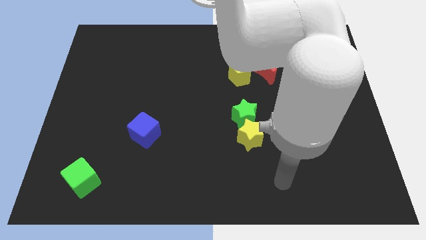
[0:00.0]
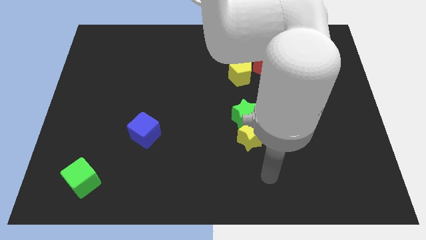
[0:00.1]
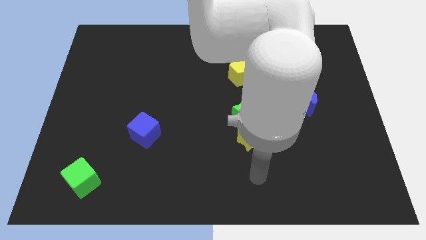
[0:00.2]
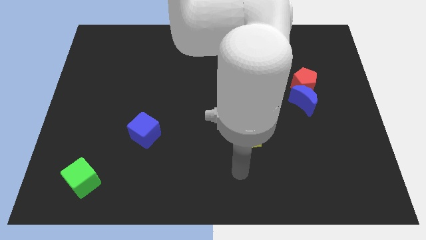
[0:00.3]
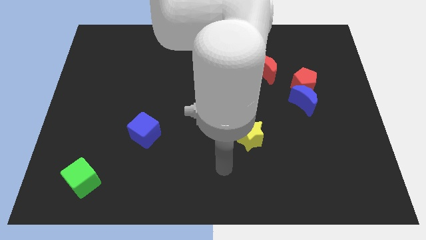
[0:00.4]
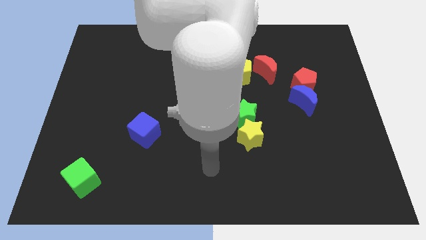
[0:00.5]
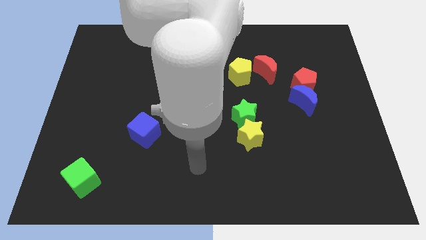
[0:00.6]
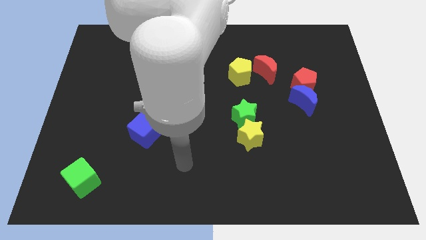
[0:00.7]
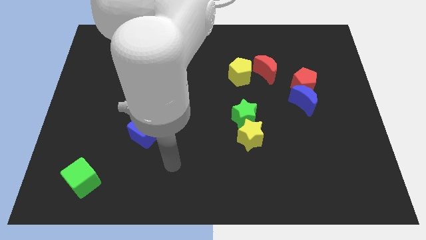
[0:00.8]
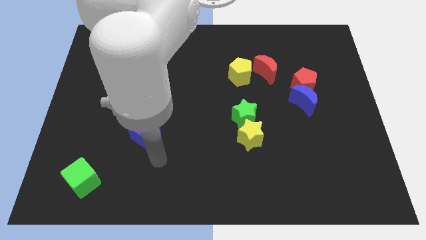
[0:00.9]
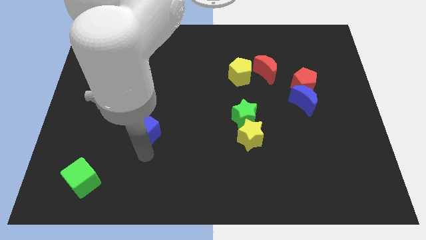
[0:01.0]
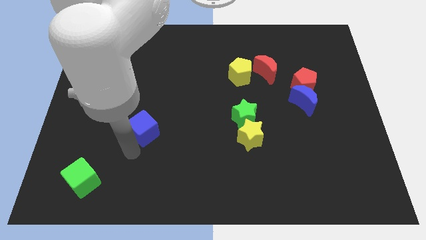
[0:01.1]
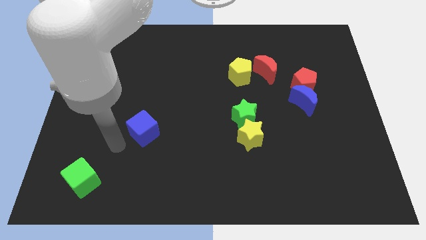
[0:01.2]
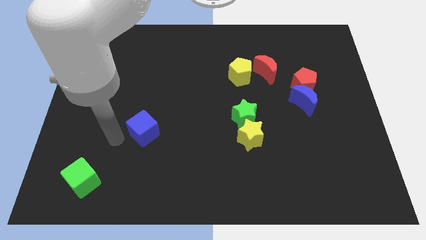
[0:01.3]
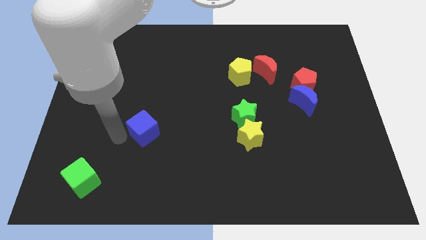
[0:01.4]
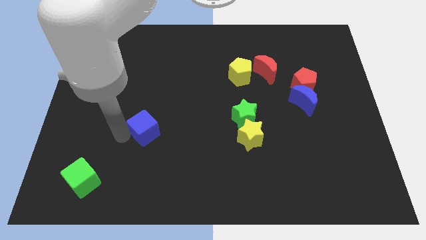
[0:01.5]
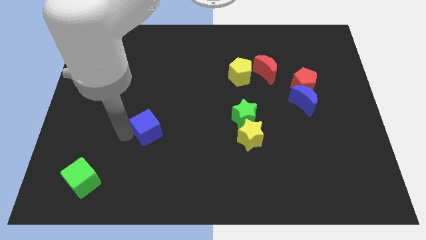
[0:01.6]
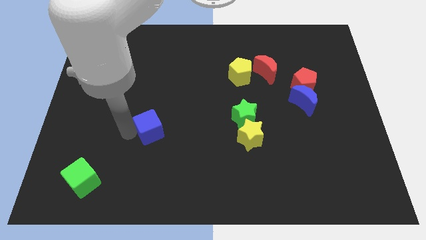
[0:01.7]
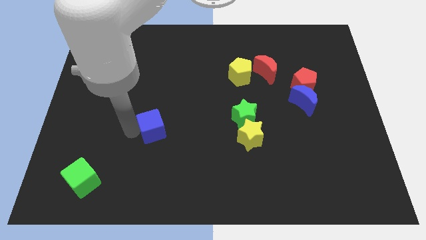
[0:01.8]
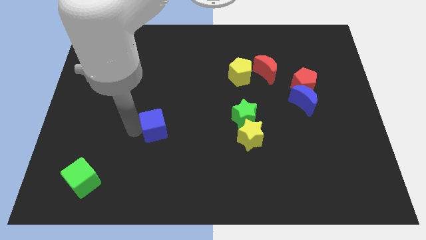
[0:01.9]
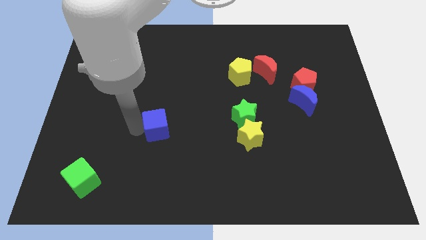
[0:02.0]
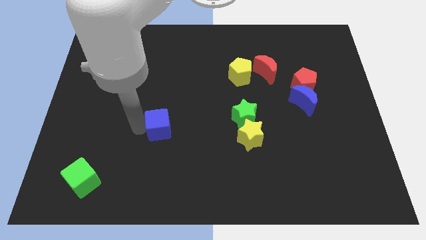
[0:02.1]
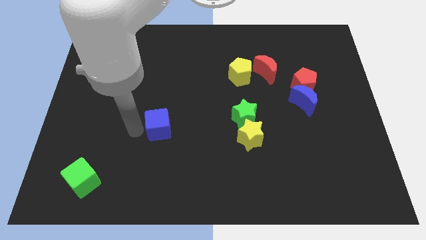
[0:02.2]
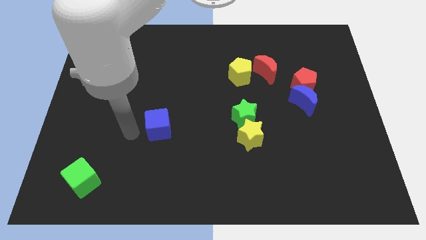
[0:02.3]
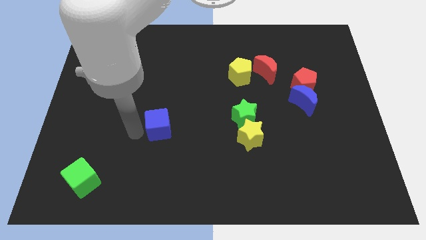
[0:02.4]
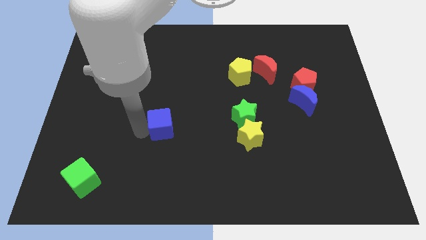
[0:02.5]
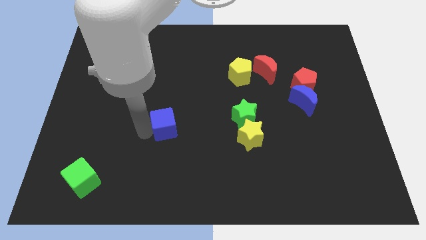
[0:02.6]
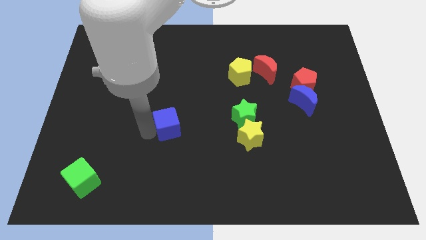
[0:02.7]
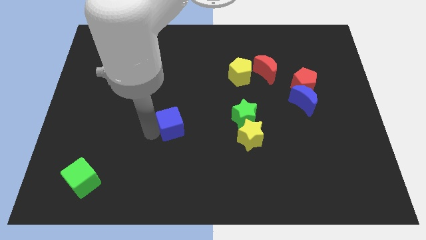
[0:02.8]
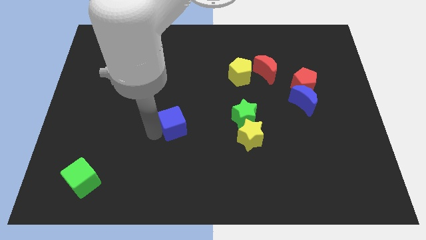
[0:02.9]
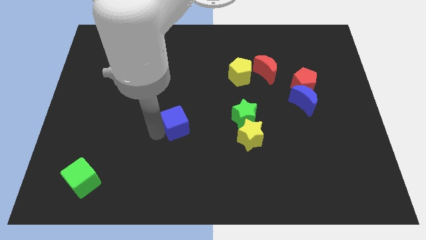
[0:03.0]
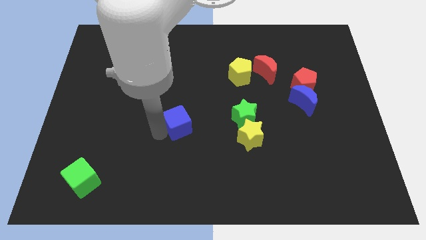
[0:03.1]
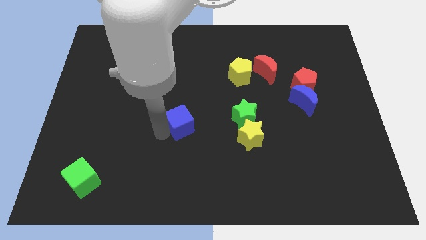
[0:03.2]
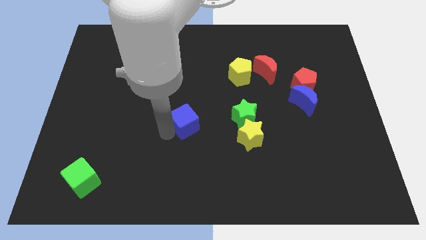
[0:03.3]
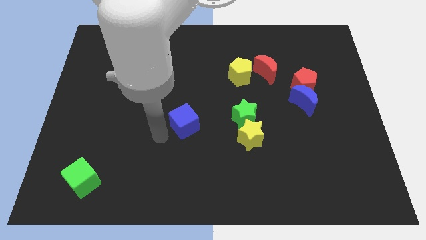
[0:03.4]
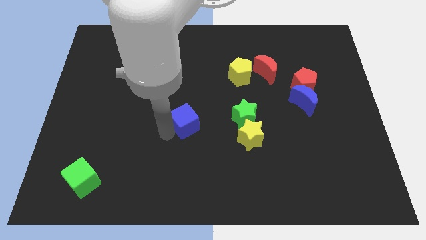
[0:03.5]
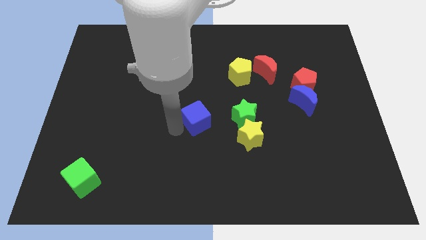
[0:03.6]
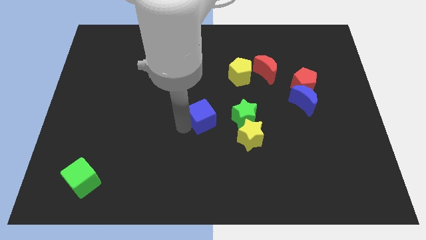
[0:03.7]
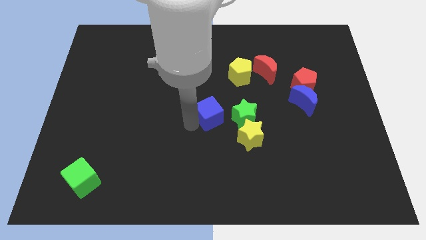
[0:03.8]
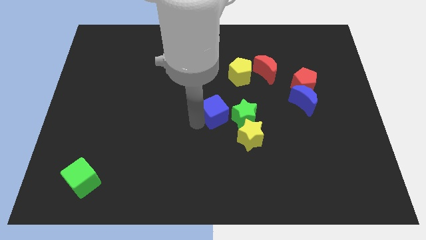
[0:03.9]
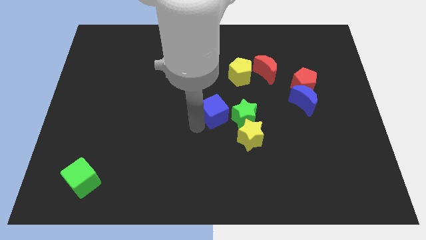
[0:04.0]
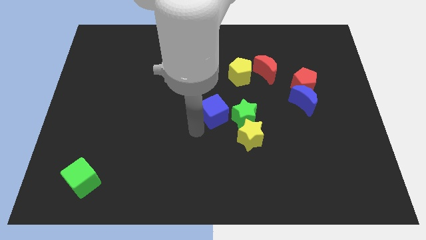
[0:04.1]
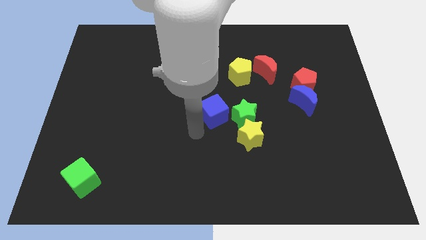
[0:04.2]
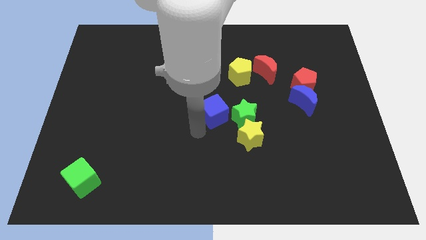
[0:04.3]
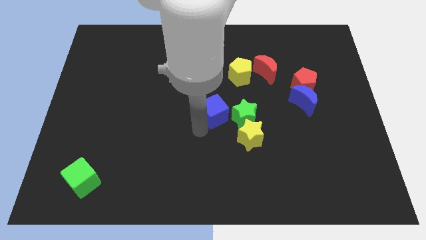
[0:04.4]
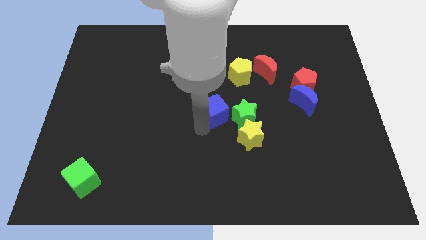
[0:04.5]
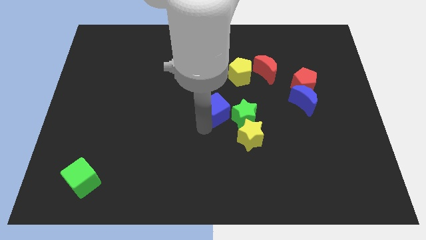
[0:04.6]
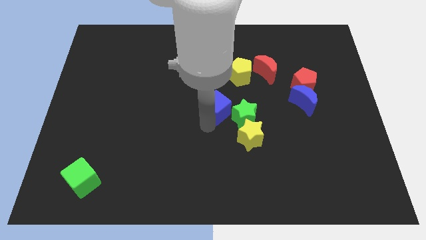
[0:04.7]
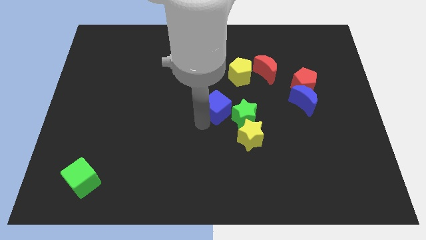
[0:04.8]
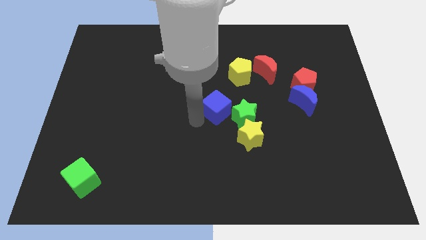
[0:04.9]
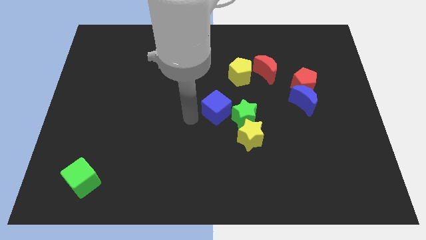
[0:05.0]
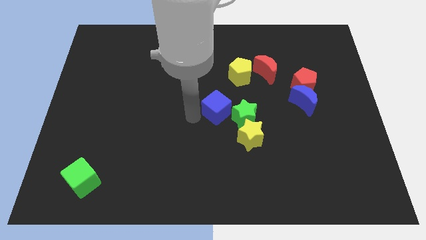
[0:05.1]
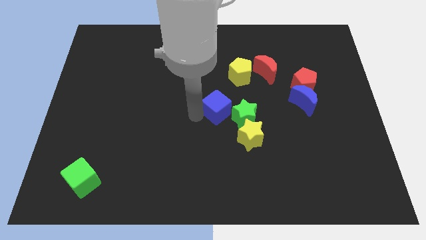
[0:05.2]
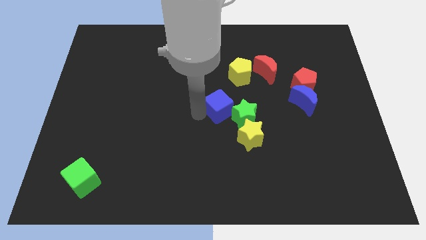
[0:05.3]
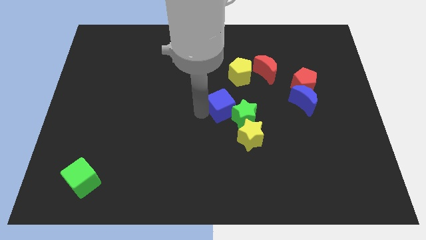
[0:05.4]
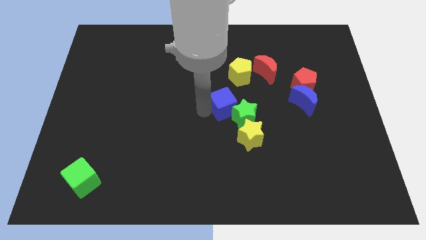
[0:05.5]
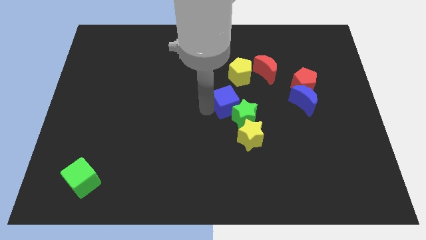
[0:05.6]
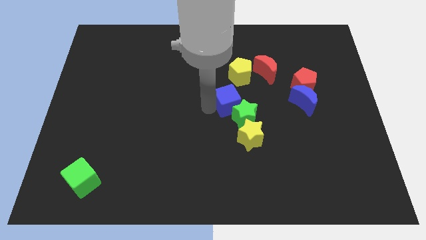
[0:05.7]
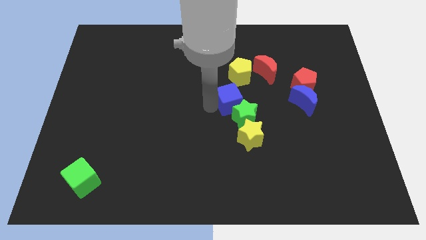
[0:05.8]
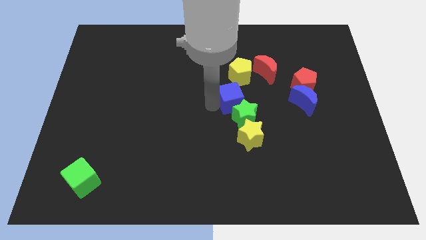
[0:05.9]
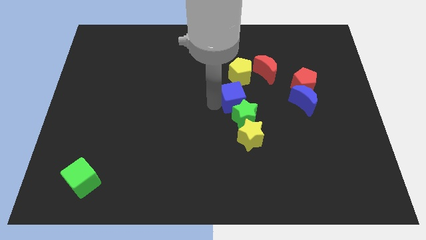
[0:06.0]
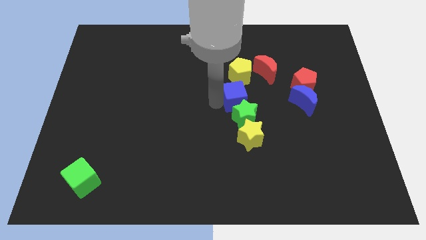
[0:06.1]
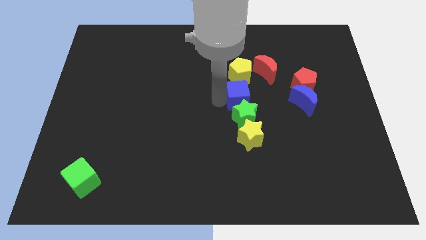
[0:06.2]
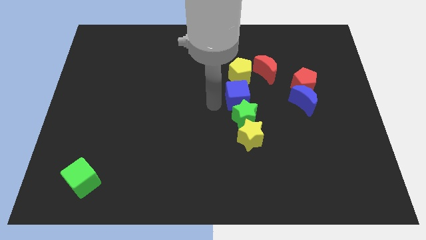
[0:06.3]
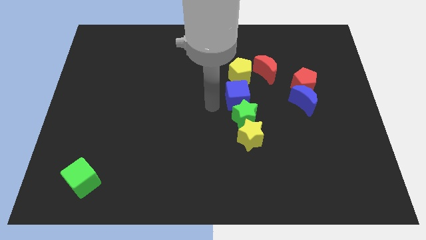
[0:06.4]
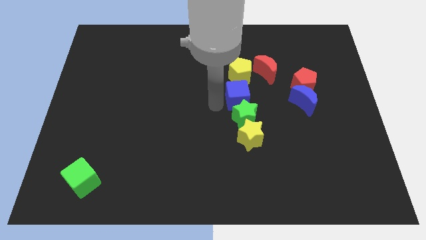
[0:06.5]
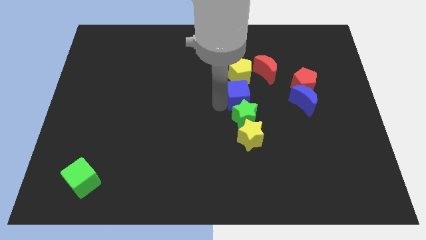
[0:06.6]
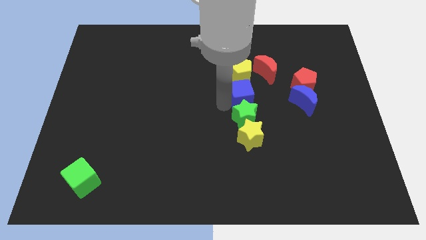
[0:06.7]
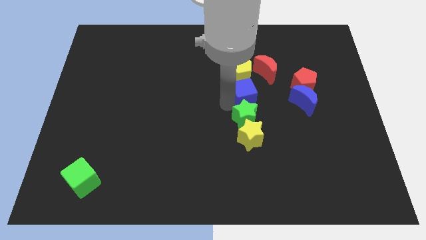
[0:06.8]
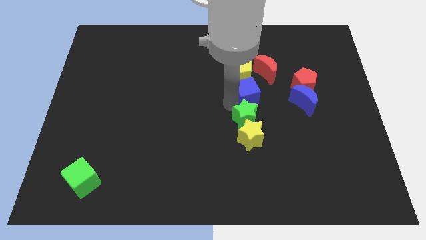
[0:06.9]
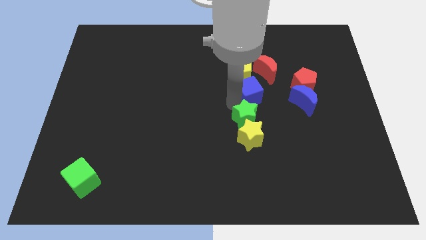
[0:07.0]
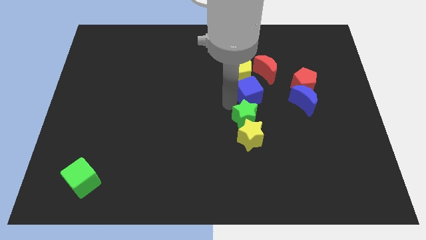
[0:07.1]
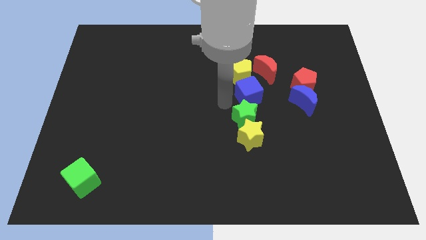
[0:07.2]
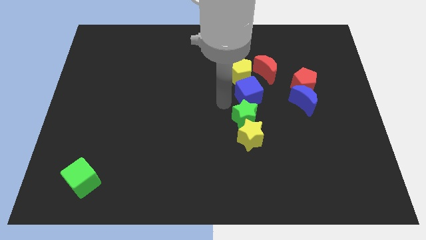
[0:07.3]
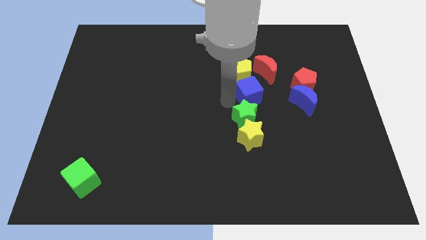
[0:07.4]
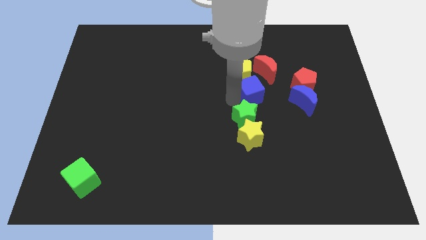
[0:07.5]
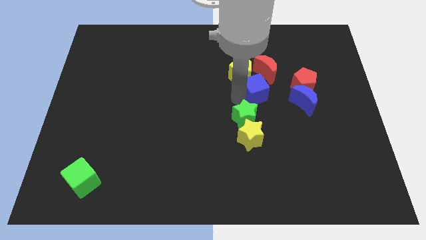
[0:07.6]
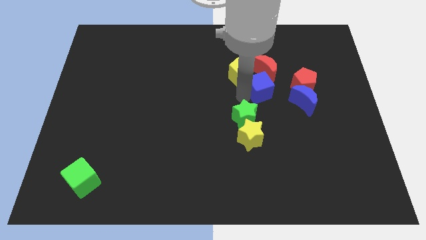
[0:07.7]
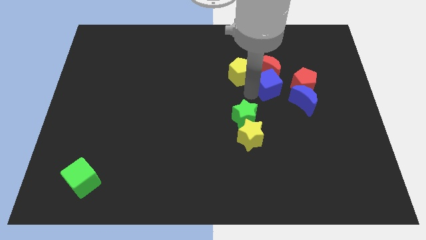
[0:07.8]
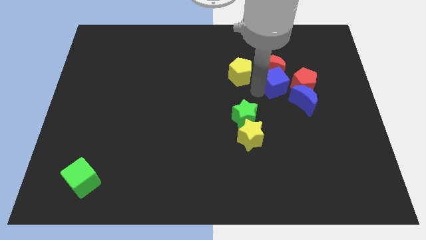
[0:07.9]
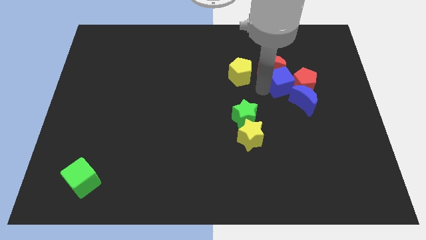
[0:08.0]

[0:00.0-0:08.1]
put the blue cube towards the red pentagon
